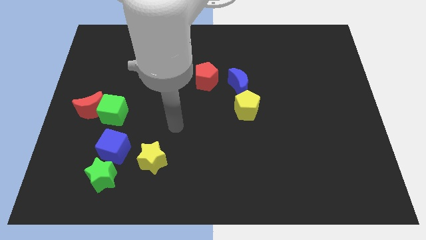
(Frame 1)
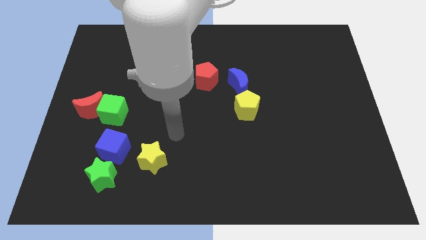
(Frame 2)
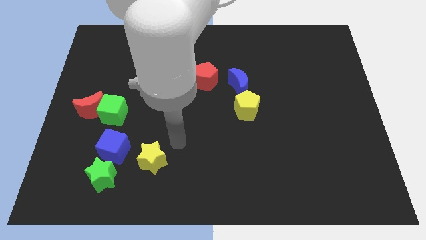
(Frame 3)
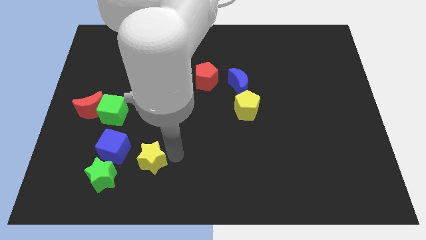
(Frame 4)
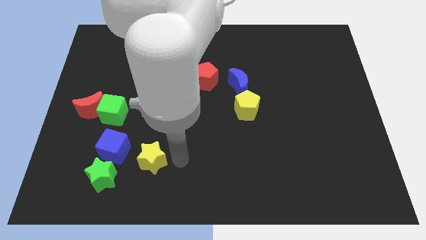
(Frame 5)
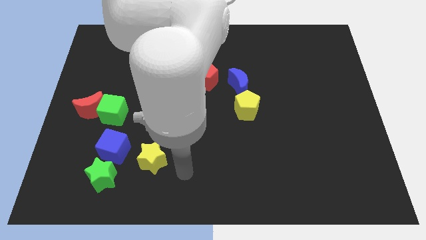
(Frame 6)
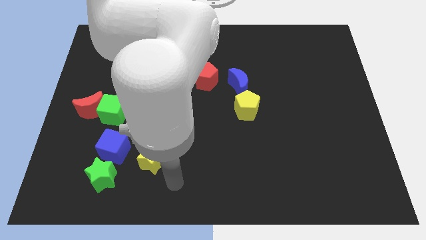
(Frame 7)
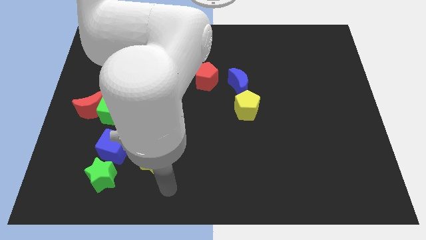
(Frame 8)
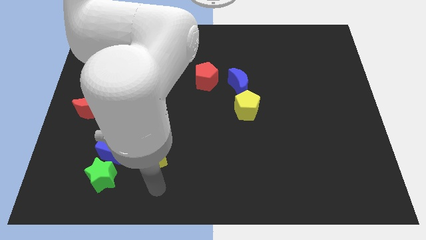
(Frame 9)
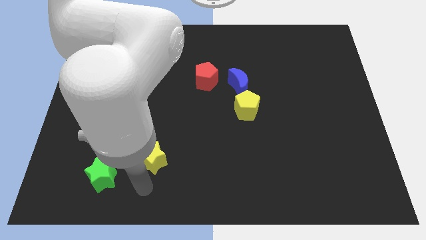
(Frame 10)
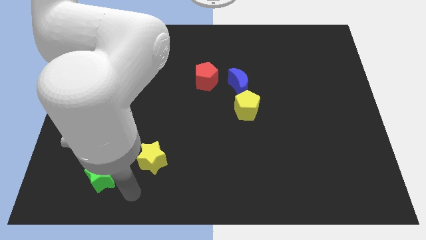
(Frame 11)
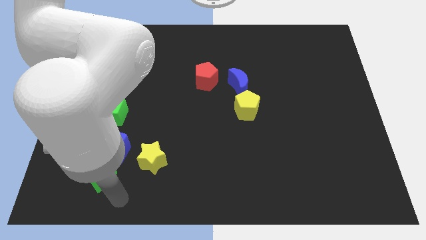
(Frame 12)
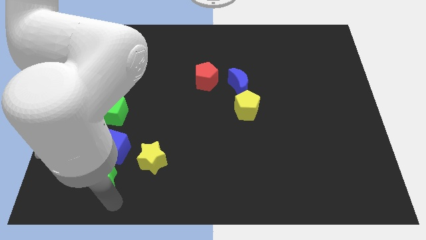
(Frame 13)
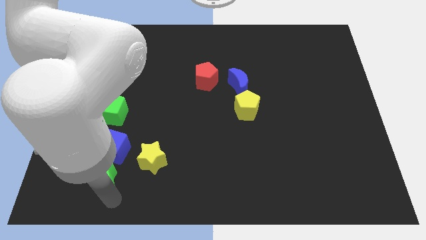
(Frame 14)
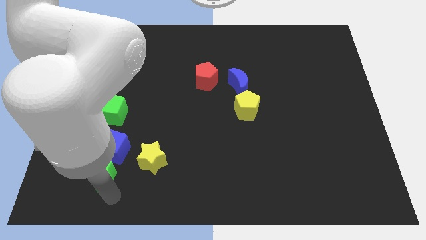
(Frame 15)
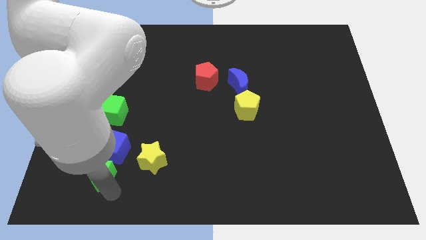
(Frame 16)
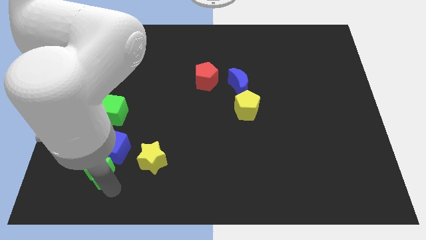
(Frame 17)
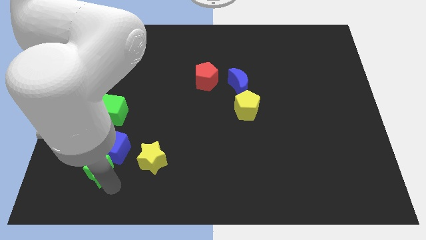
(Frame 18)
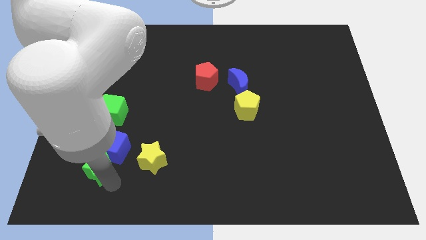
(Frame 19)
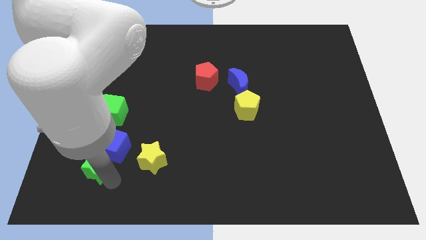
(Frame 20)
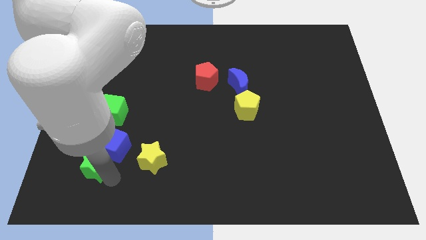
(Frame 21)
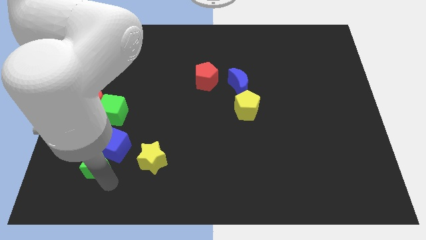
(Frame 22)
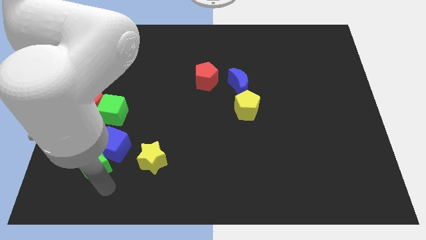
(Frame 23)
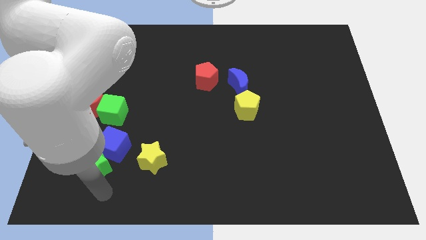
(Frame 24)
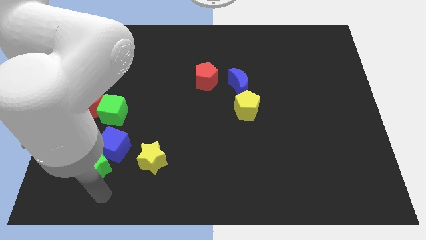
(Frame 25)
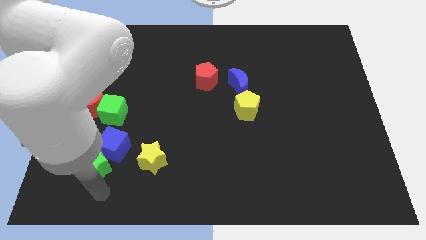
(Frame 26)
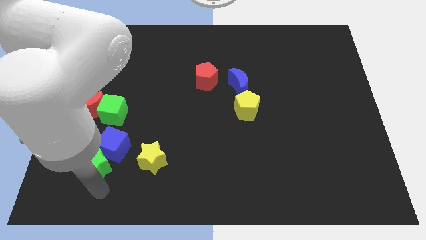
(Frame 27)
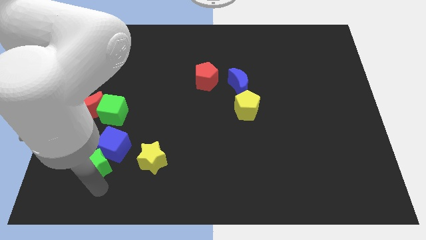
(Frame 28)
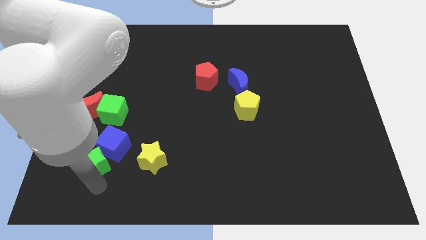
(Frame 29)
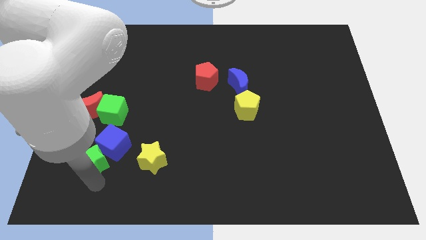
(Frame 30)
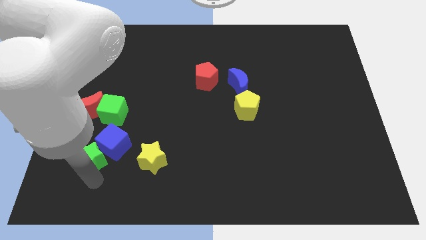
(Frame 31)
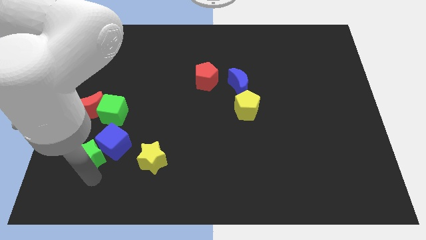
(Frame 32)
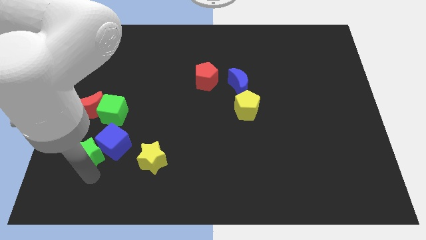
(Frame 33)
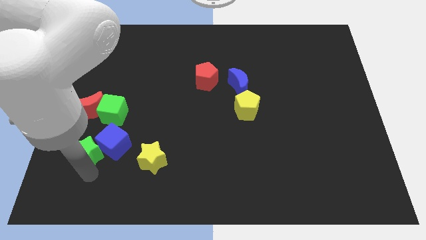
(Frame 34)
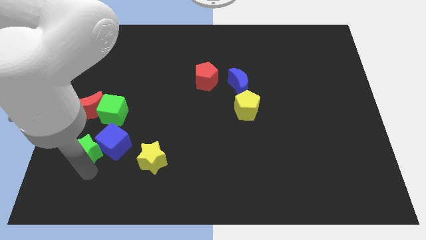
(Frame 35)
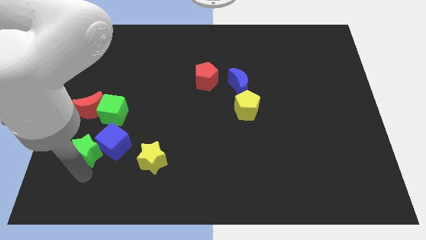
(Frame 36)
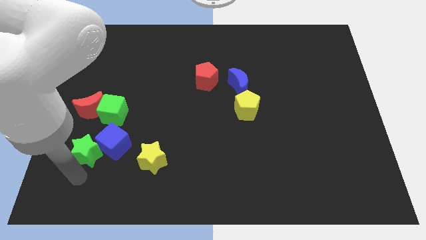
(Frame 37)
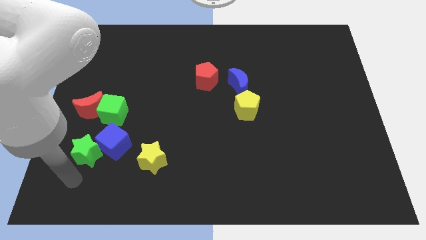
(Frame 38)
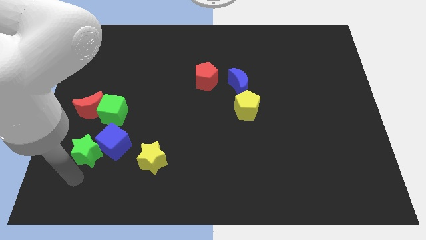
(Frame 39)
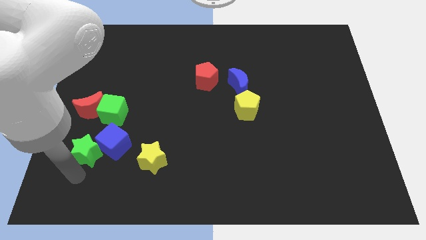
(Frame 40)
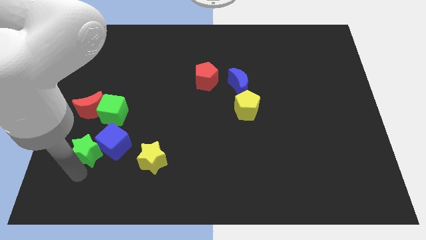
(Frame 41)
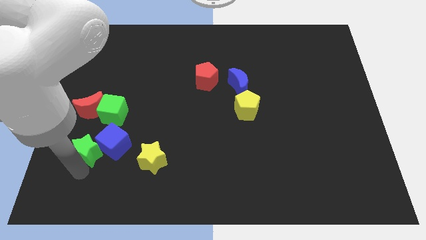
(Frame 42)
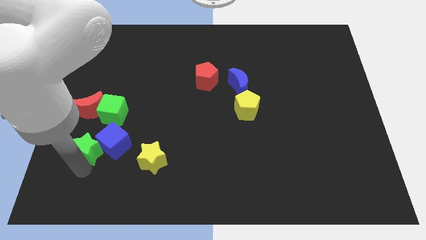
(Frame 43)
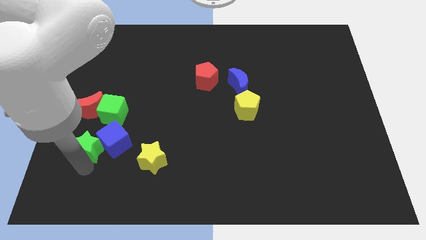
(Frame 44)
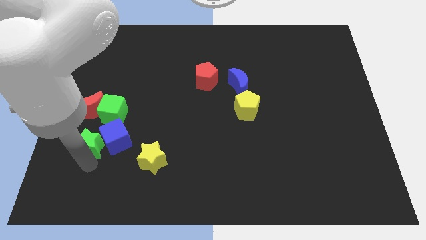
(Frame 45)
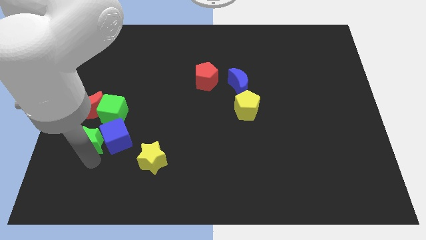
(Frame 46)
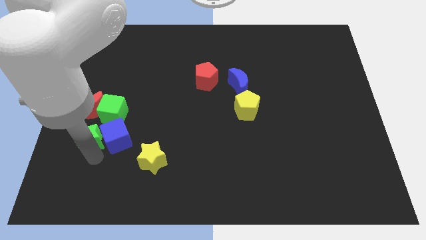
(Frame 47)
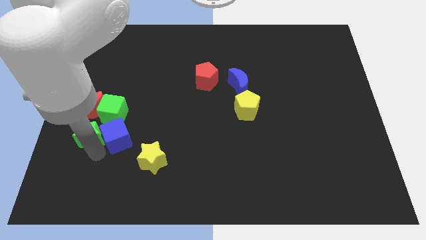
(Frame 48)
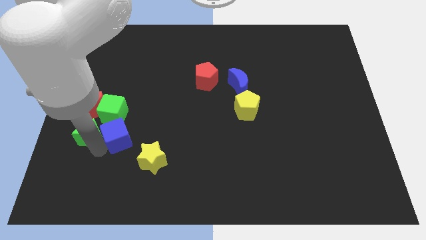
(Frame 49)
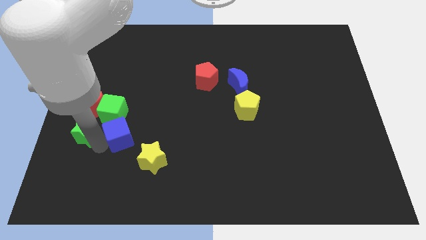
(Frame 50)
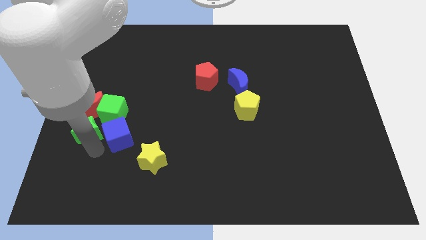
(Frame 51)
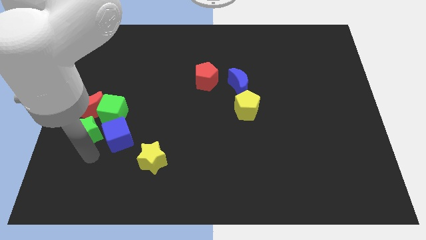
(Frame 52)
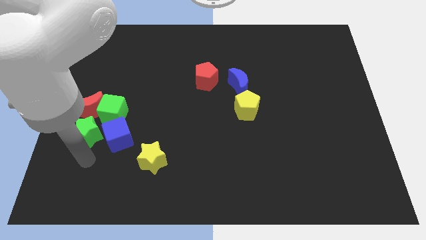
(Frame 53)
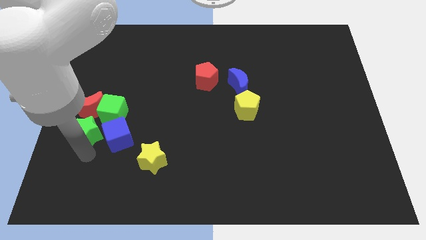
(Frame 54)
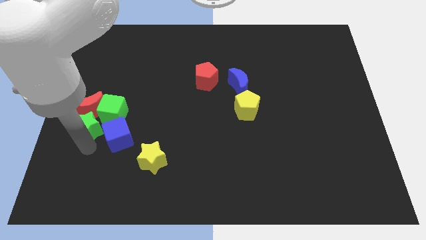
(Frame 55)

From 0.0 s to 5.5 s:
move the green star next to the red moon

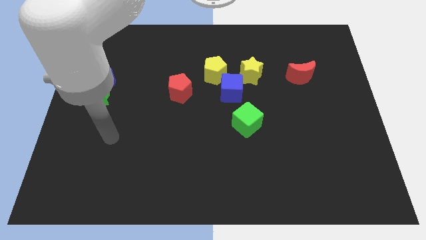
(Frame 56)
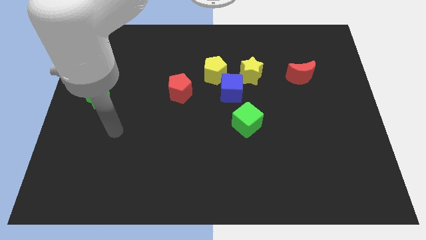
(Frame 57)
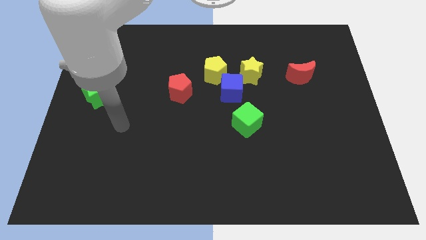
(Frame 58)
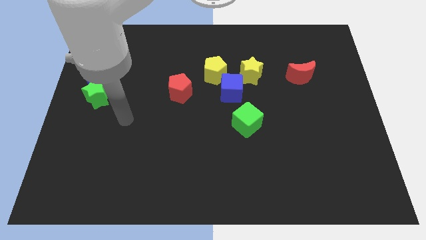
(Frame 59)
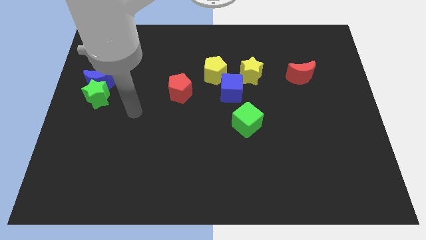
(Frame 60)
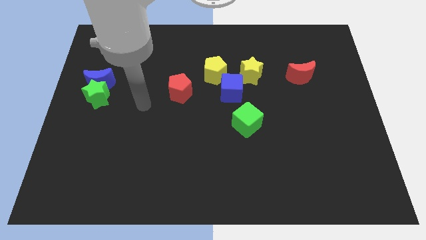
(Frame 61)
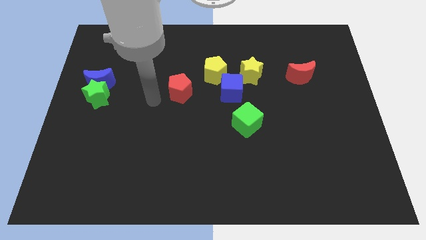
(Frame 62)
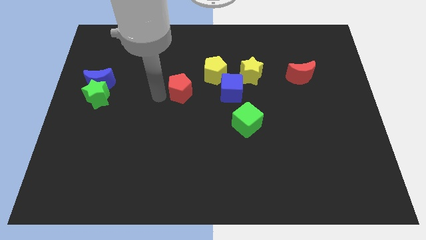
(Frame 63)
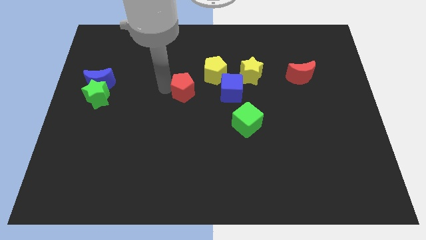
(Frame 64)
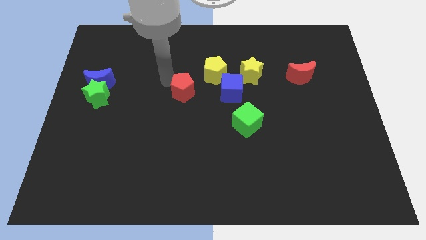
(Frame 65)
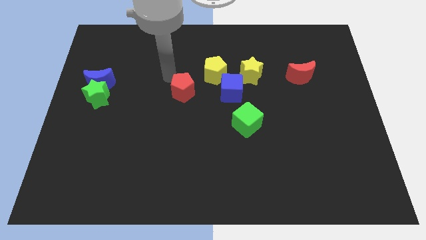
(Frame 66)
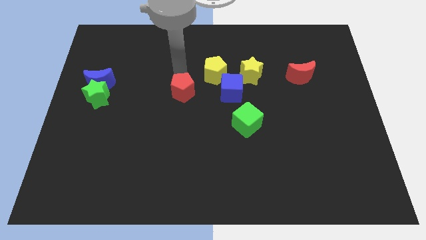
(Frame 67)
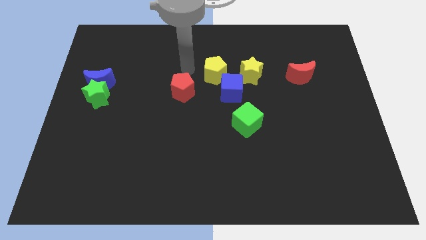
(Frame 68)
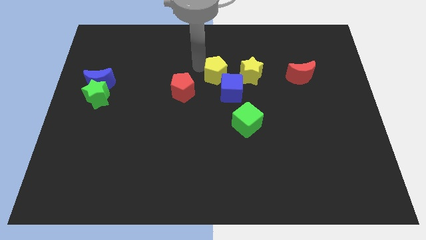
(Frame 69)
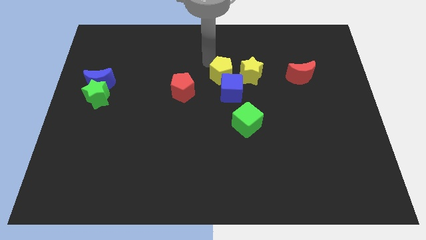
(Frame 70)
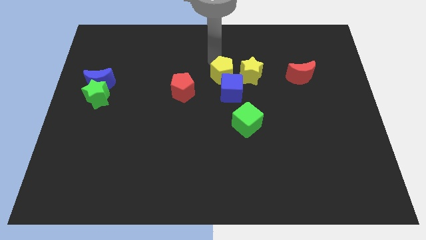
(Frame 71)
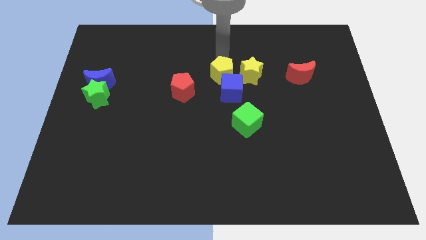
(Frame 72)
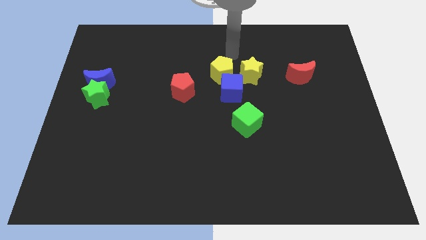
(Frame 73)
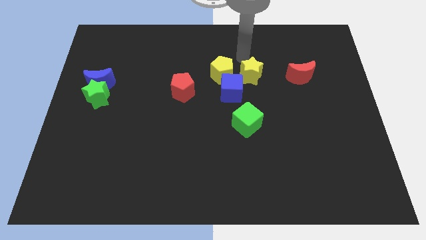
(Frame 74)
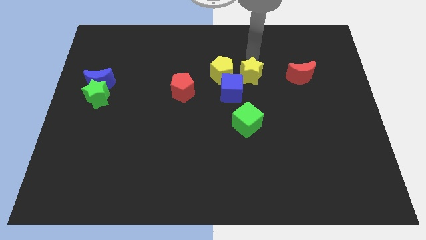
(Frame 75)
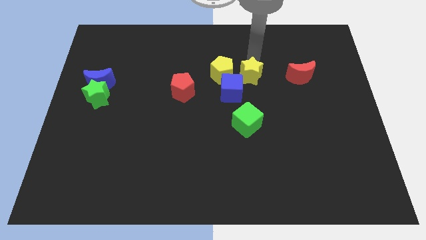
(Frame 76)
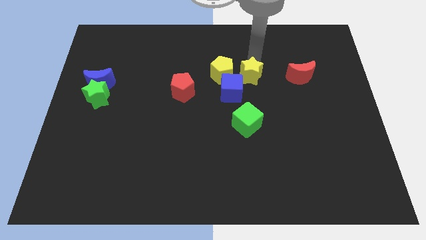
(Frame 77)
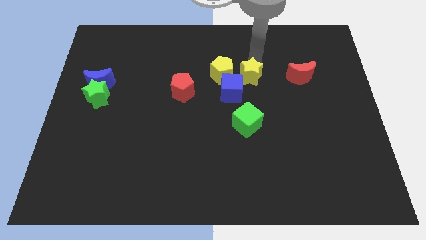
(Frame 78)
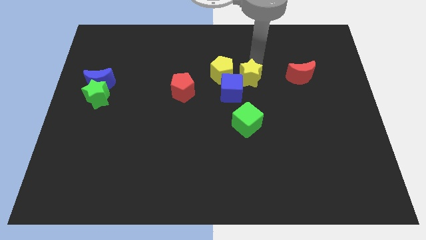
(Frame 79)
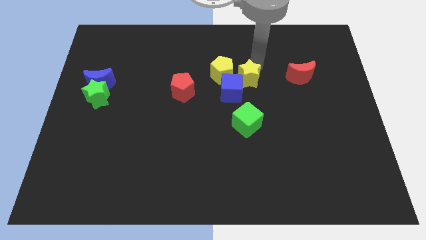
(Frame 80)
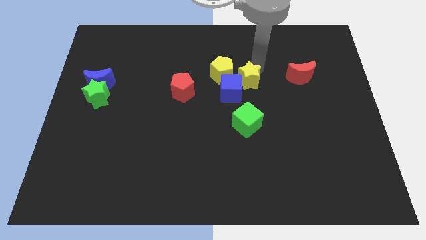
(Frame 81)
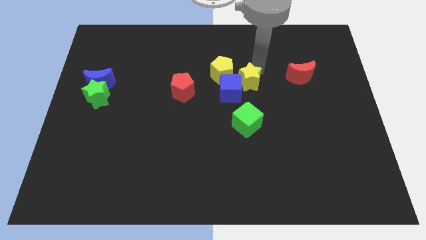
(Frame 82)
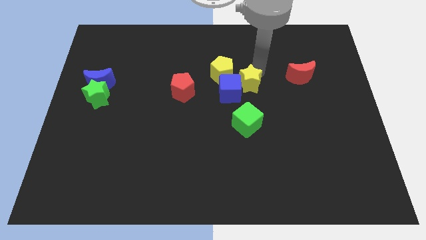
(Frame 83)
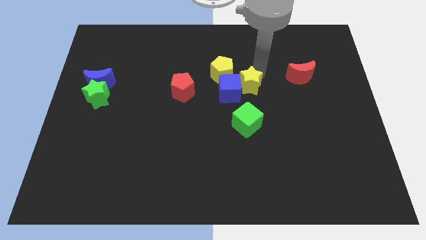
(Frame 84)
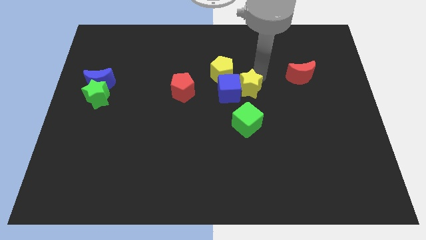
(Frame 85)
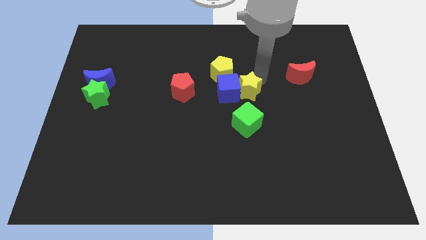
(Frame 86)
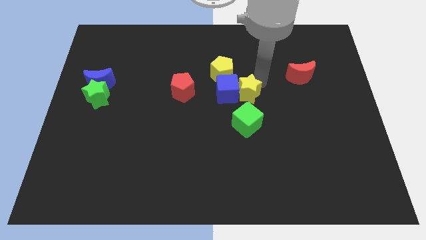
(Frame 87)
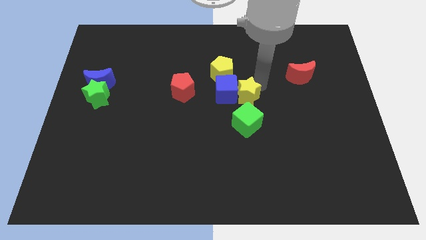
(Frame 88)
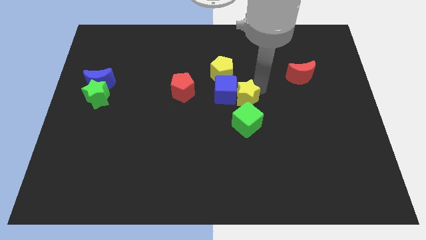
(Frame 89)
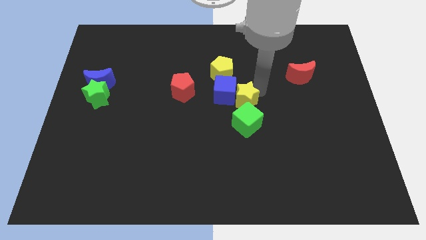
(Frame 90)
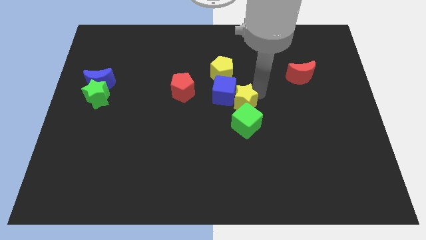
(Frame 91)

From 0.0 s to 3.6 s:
push the yellow star close to the green cube
